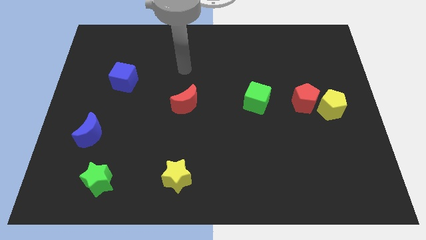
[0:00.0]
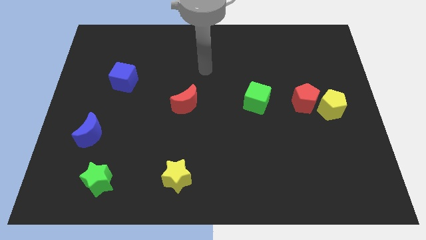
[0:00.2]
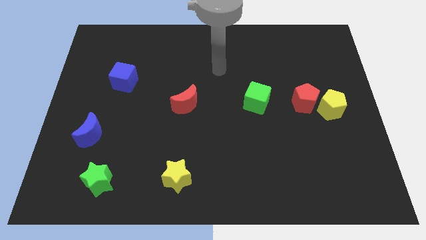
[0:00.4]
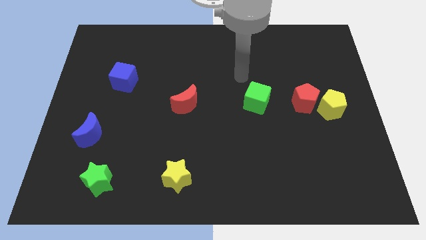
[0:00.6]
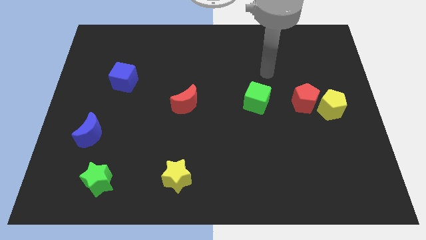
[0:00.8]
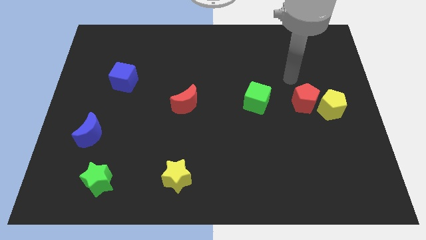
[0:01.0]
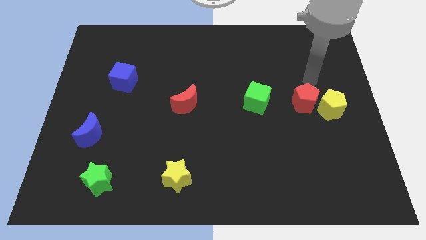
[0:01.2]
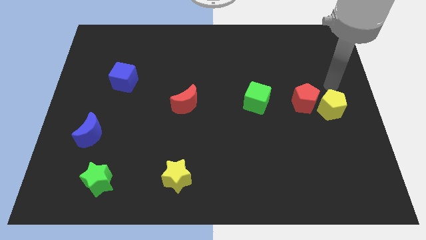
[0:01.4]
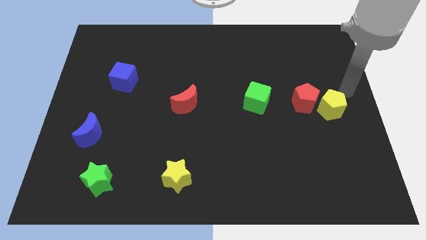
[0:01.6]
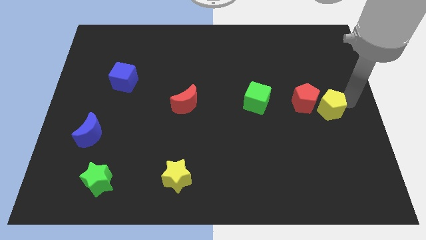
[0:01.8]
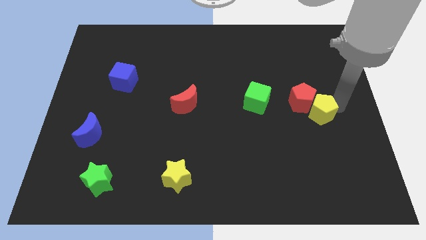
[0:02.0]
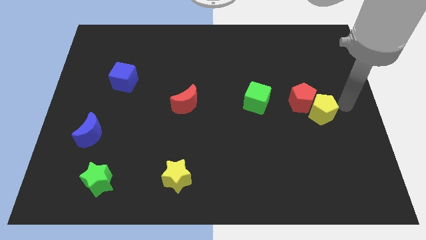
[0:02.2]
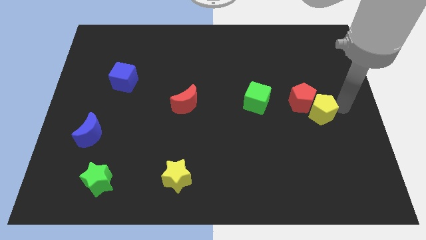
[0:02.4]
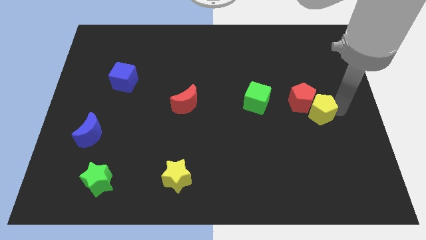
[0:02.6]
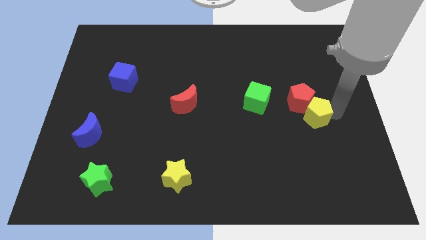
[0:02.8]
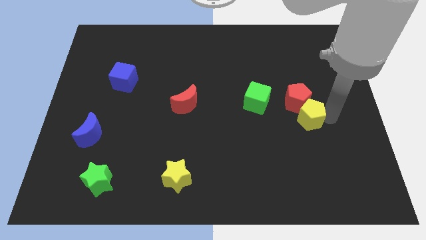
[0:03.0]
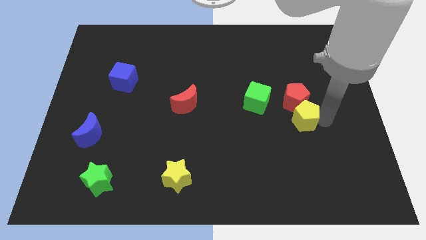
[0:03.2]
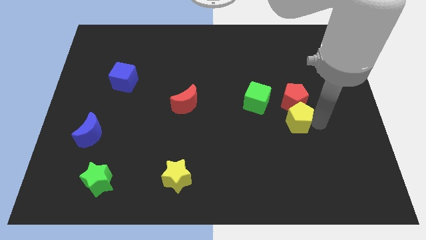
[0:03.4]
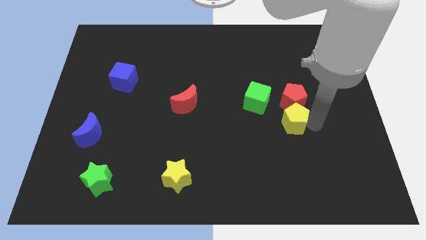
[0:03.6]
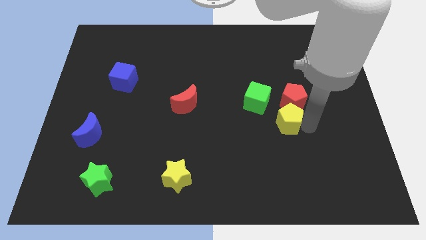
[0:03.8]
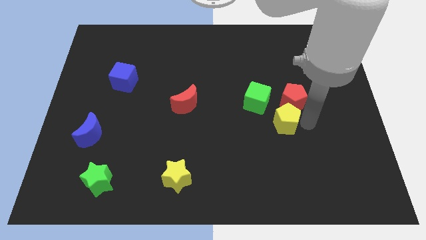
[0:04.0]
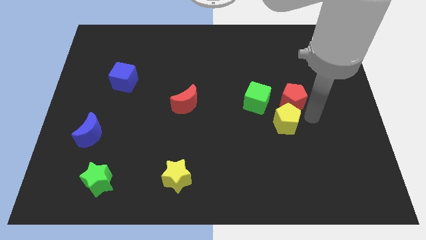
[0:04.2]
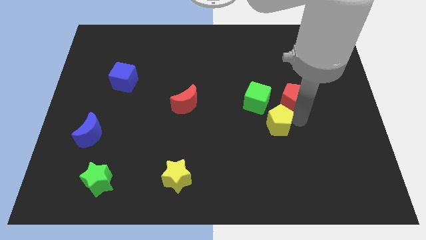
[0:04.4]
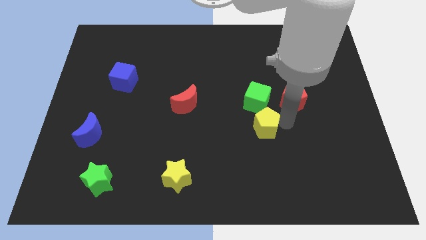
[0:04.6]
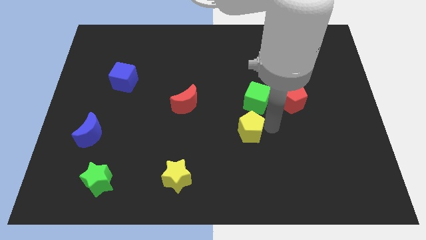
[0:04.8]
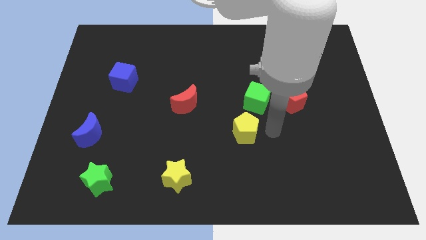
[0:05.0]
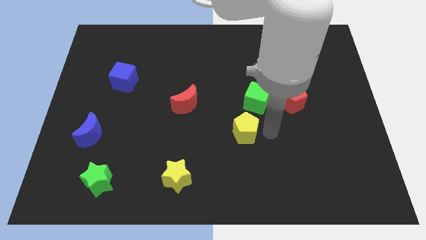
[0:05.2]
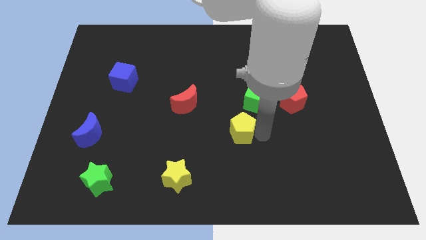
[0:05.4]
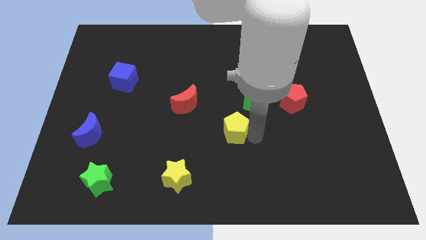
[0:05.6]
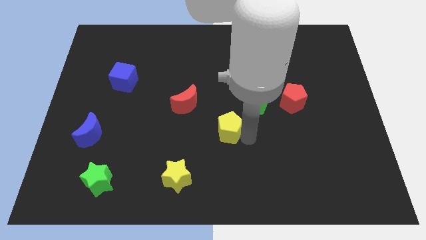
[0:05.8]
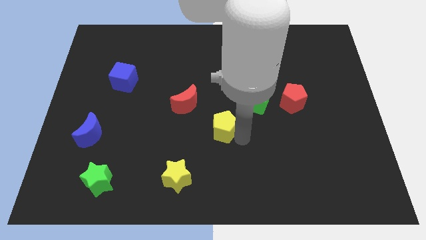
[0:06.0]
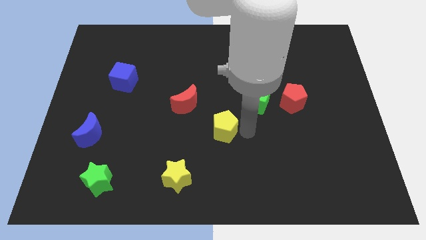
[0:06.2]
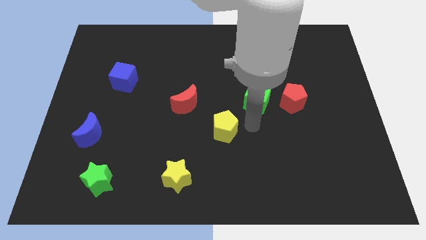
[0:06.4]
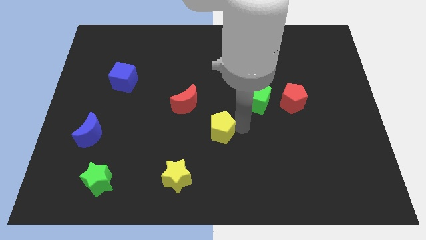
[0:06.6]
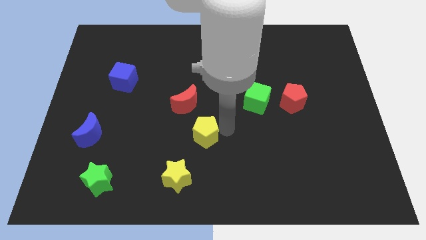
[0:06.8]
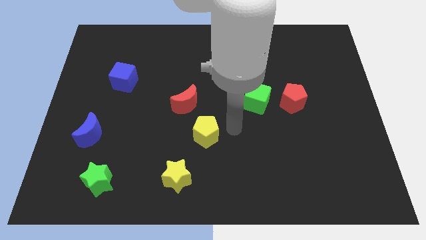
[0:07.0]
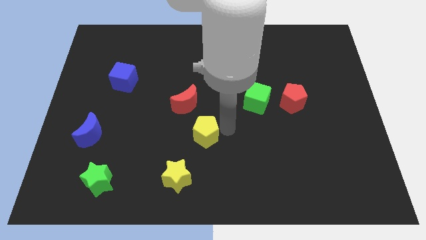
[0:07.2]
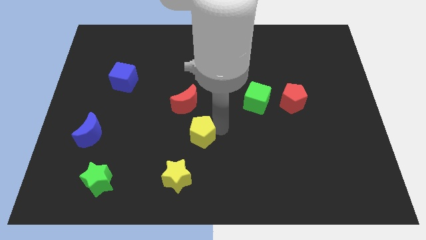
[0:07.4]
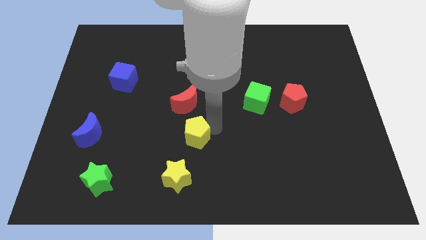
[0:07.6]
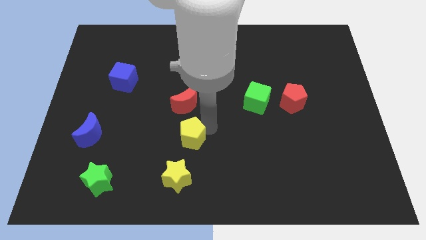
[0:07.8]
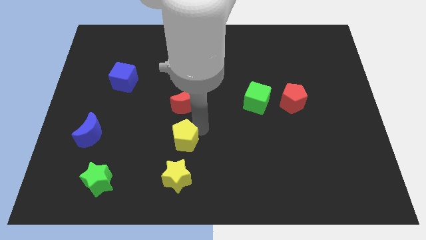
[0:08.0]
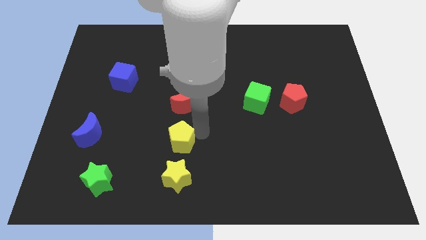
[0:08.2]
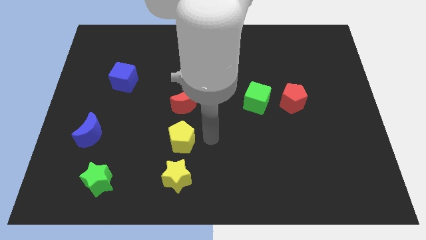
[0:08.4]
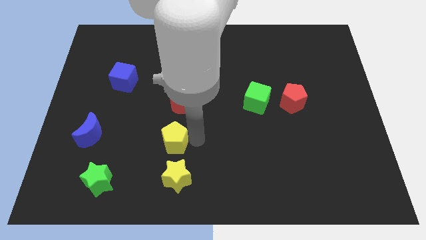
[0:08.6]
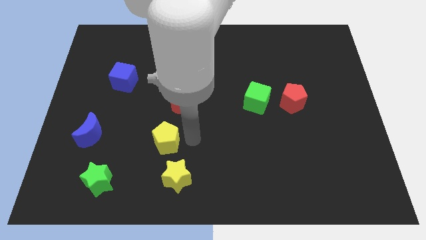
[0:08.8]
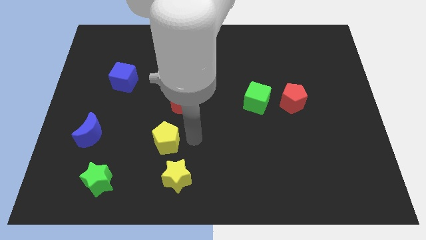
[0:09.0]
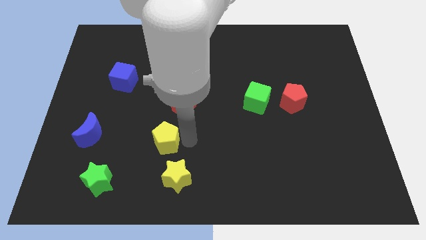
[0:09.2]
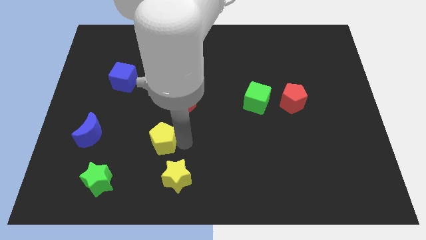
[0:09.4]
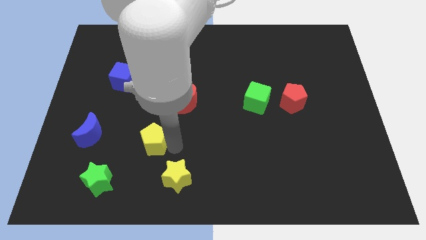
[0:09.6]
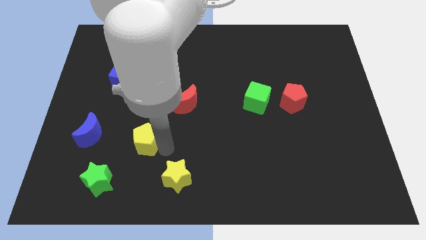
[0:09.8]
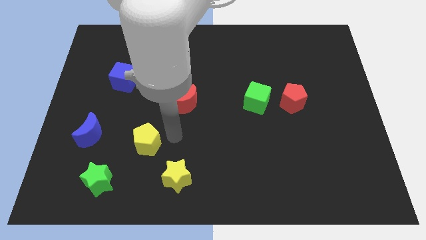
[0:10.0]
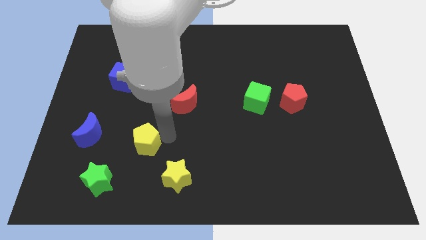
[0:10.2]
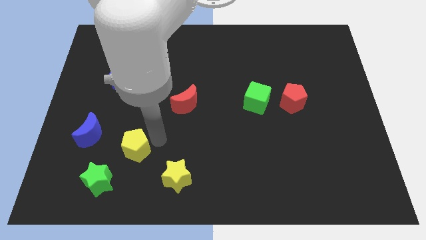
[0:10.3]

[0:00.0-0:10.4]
put the yellow pentagon to the bottom right side of the blue moon

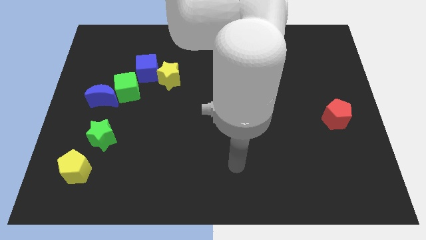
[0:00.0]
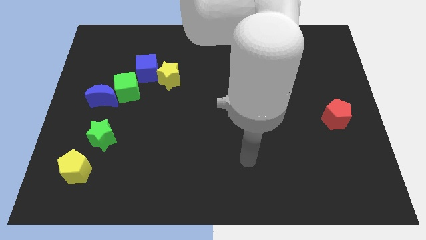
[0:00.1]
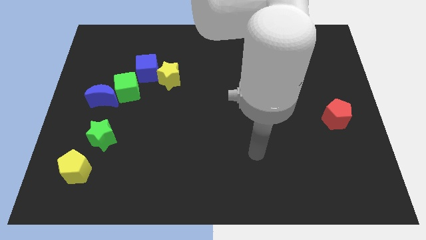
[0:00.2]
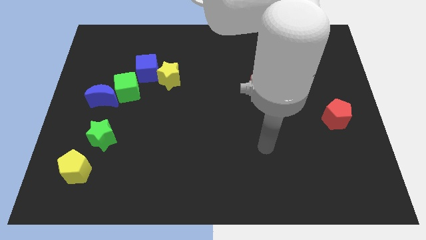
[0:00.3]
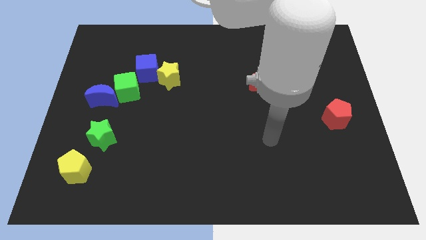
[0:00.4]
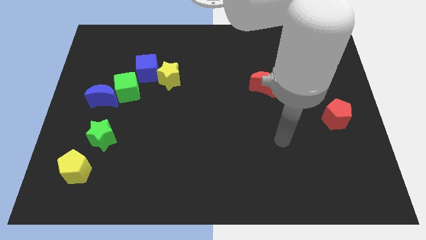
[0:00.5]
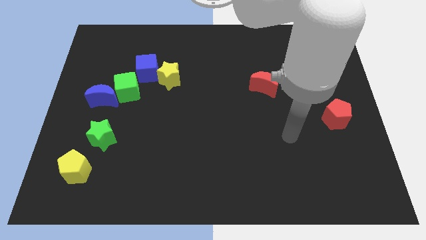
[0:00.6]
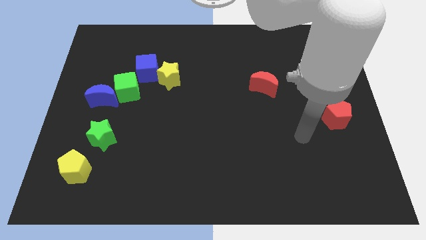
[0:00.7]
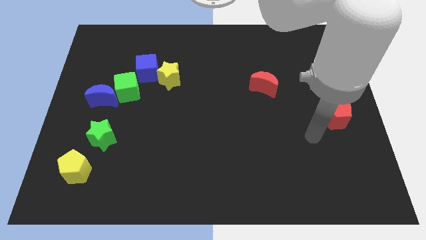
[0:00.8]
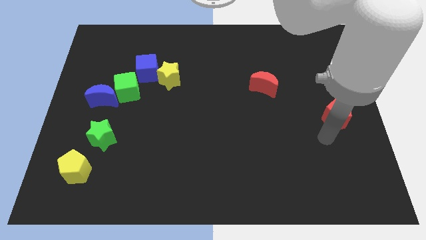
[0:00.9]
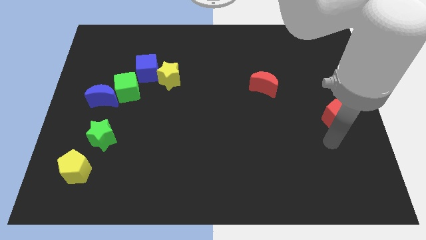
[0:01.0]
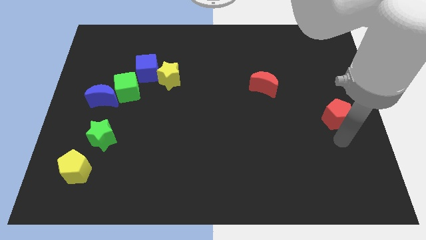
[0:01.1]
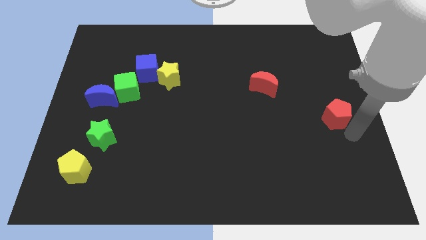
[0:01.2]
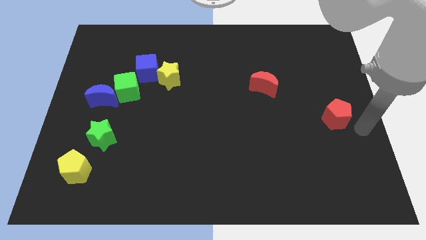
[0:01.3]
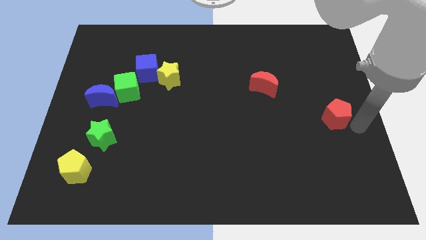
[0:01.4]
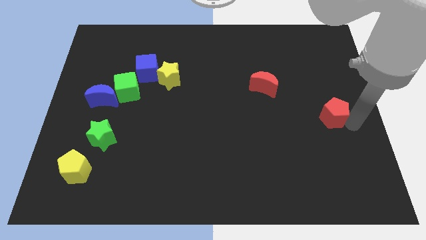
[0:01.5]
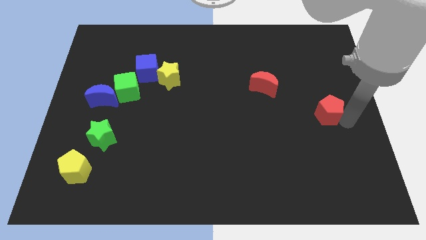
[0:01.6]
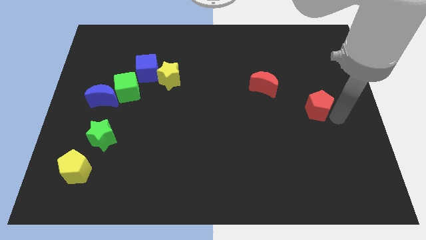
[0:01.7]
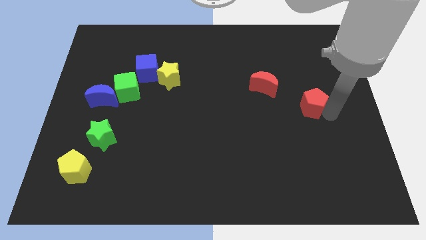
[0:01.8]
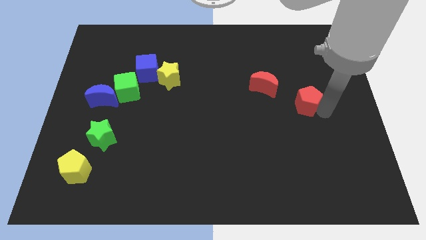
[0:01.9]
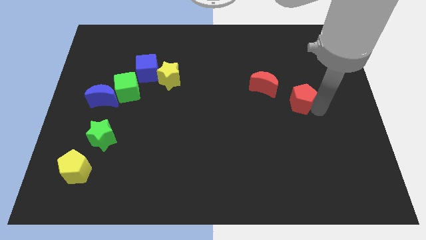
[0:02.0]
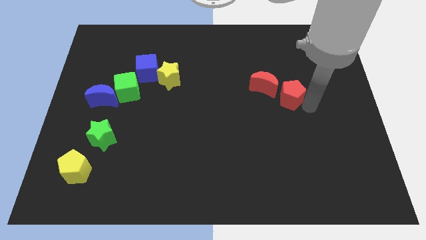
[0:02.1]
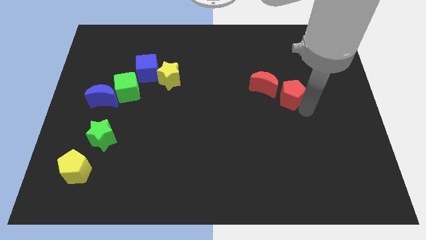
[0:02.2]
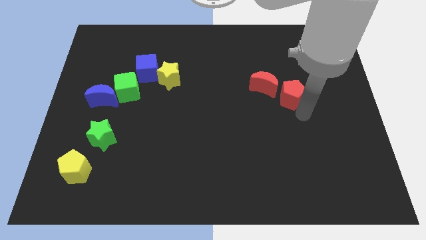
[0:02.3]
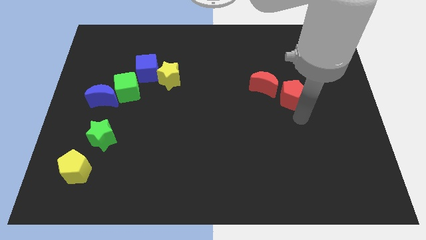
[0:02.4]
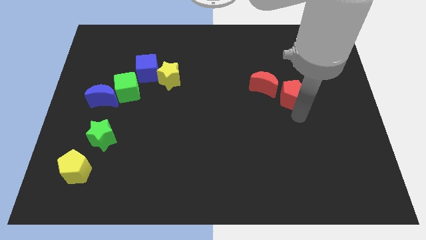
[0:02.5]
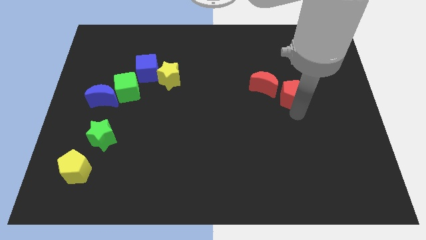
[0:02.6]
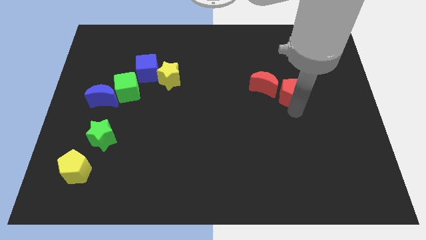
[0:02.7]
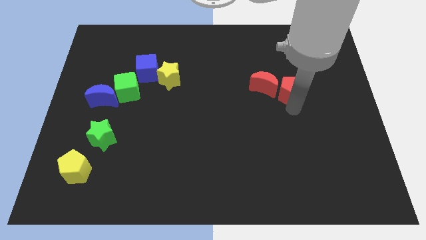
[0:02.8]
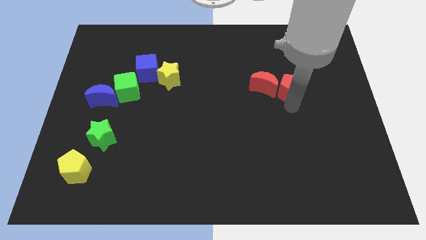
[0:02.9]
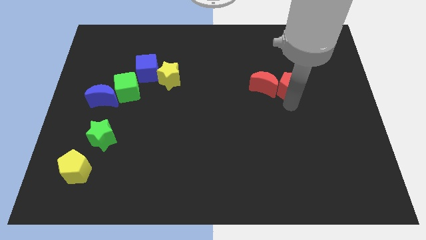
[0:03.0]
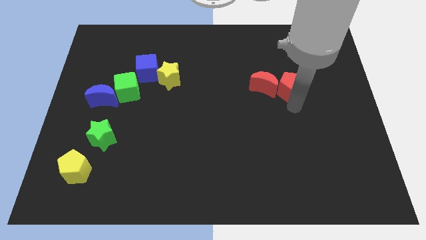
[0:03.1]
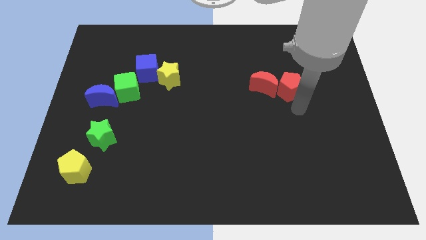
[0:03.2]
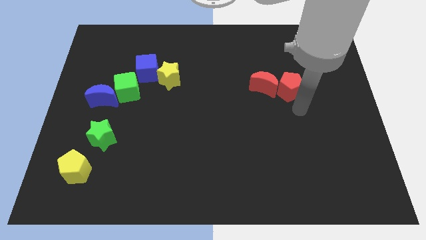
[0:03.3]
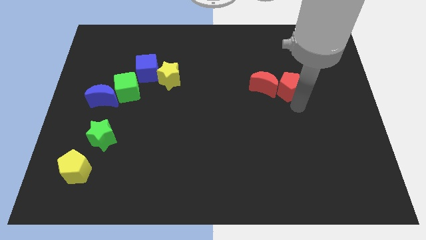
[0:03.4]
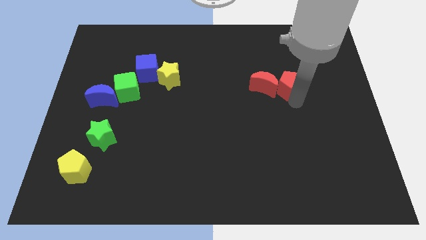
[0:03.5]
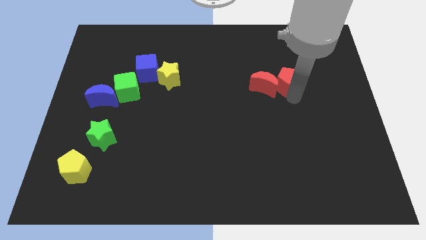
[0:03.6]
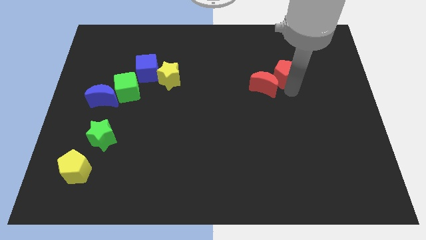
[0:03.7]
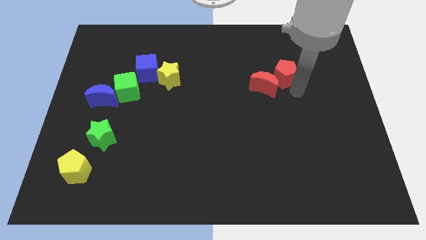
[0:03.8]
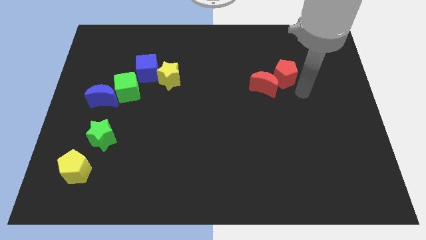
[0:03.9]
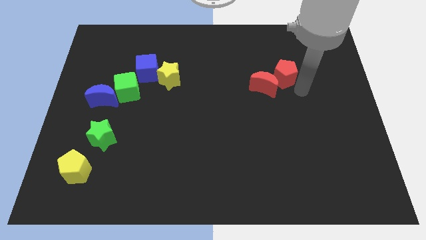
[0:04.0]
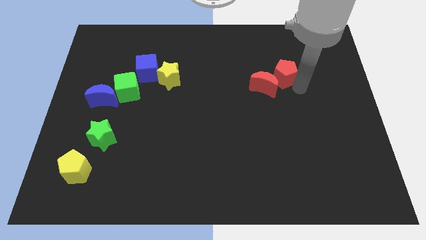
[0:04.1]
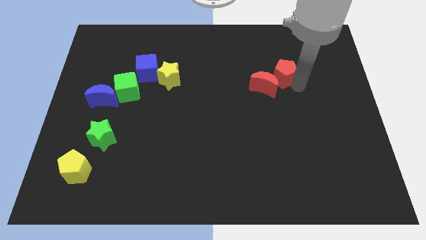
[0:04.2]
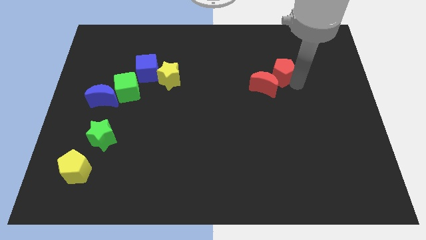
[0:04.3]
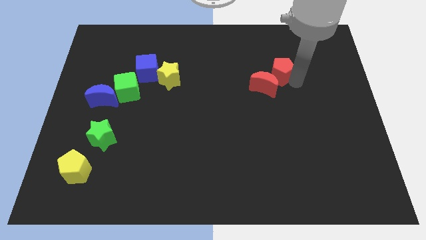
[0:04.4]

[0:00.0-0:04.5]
move the red pentagon above the red moon
